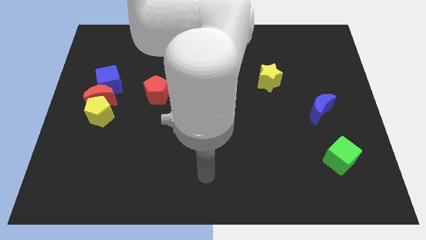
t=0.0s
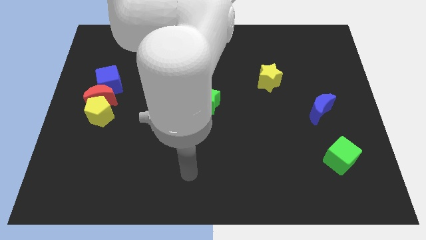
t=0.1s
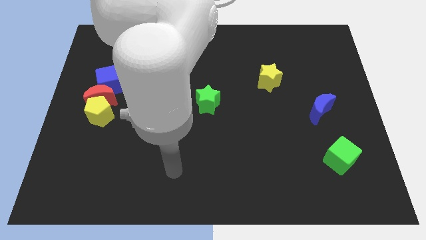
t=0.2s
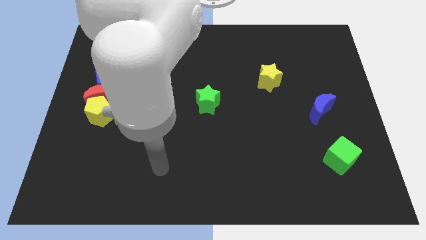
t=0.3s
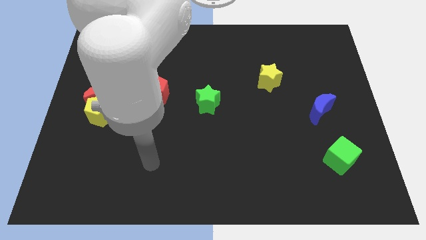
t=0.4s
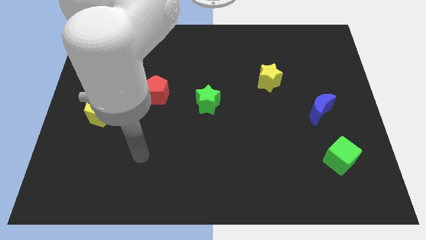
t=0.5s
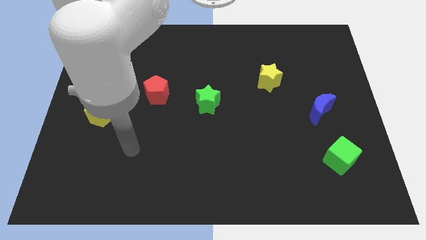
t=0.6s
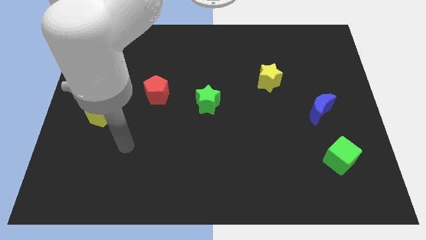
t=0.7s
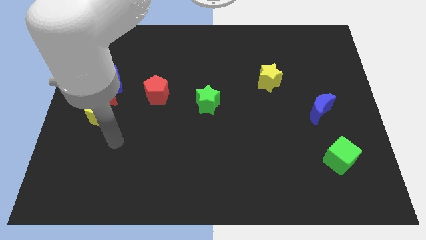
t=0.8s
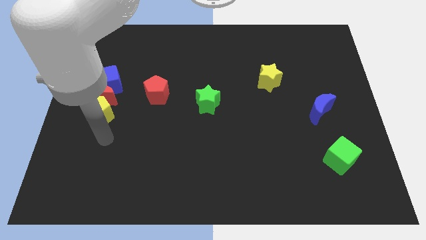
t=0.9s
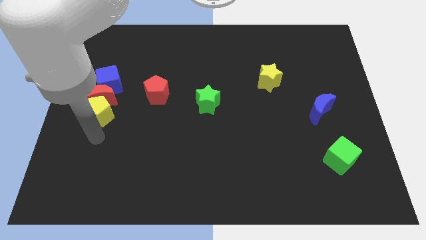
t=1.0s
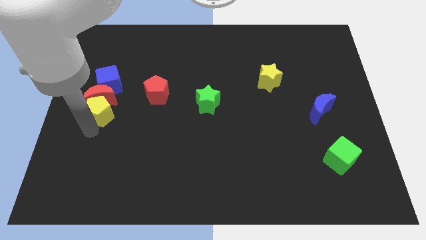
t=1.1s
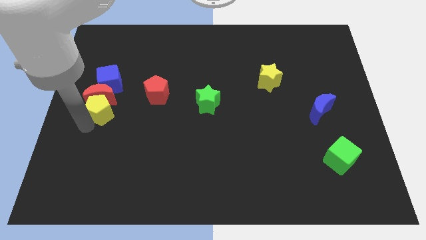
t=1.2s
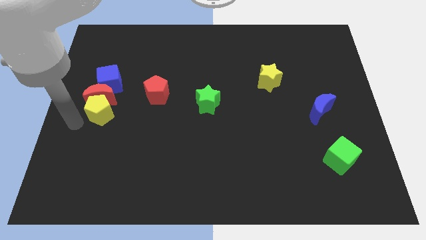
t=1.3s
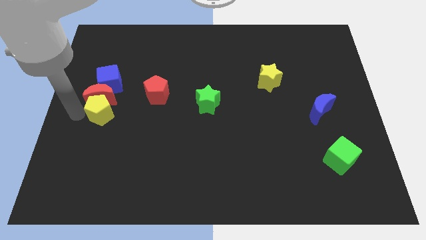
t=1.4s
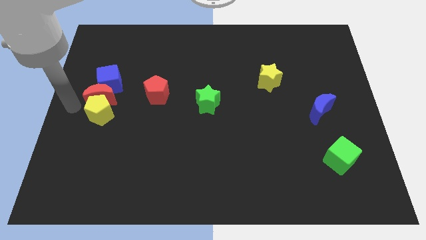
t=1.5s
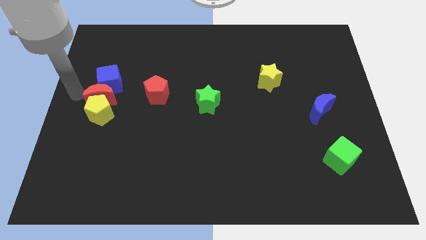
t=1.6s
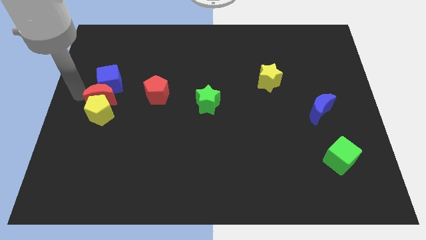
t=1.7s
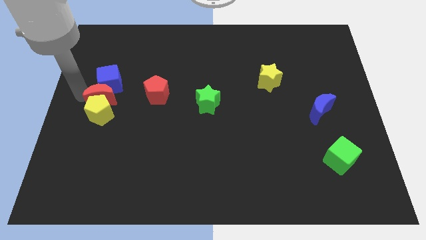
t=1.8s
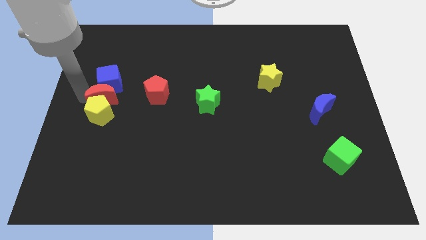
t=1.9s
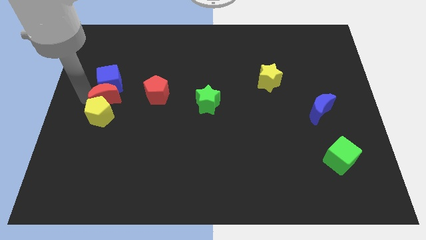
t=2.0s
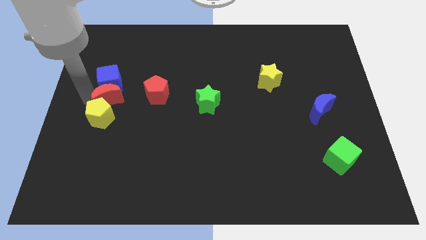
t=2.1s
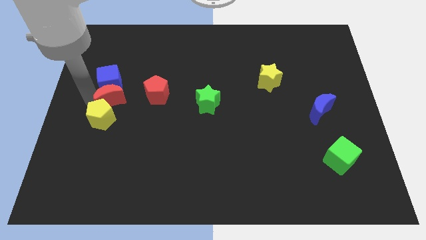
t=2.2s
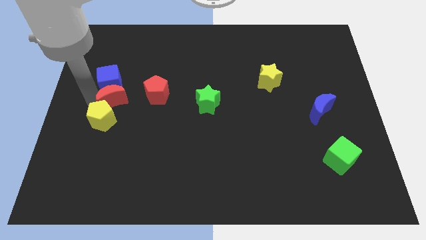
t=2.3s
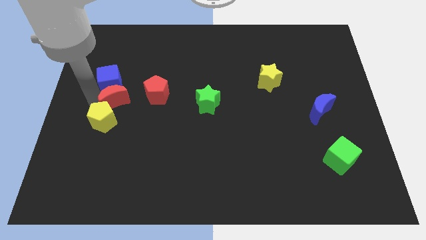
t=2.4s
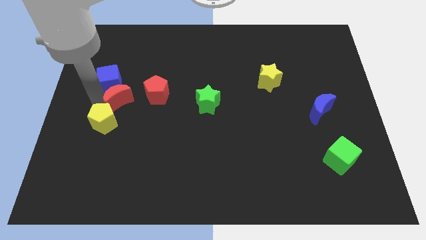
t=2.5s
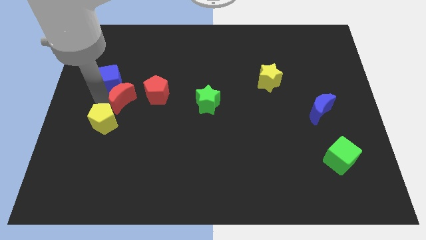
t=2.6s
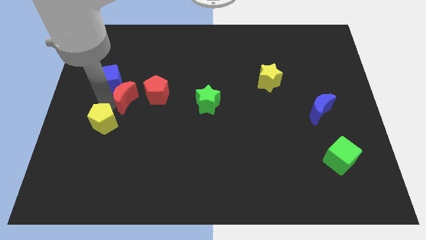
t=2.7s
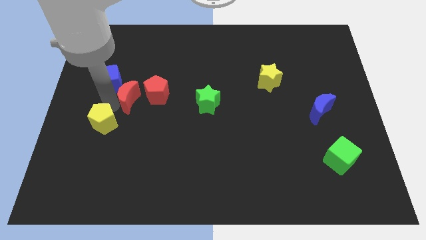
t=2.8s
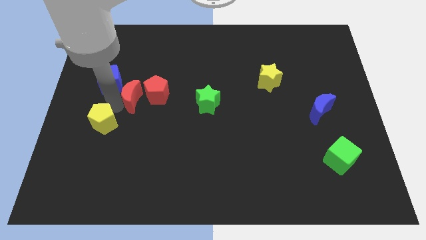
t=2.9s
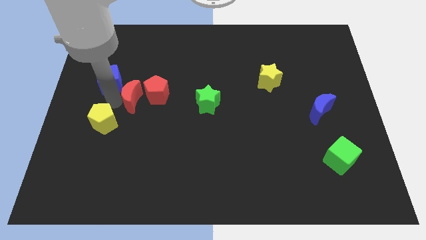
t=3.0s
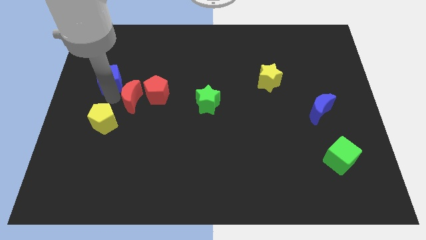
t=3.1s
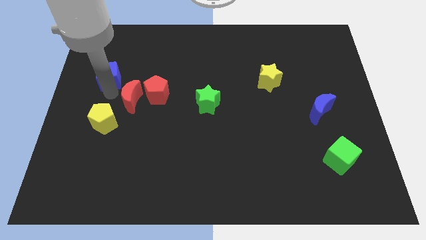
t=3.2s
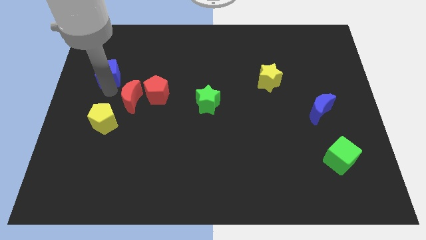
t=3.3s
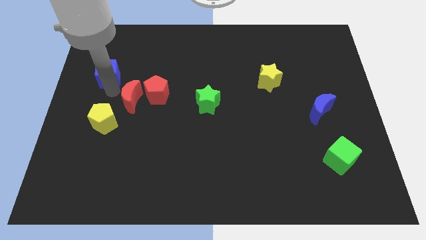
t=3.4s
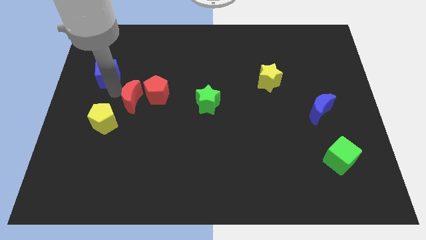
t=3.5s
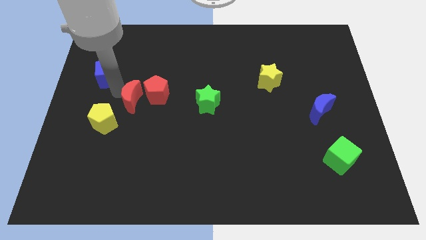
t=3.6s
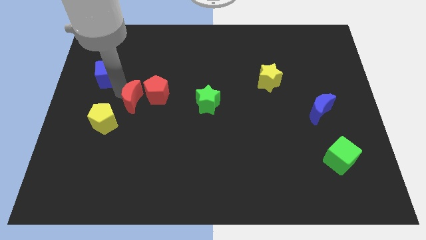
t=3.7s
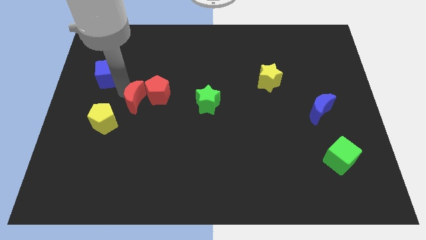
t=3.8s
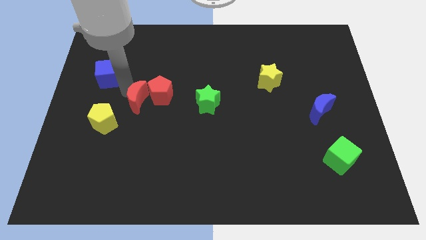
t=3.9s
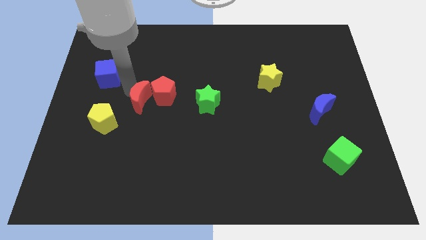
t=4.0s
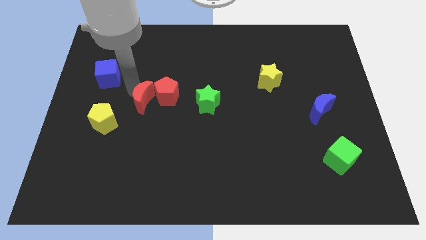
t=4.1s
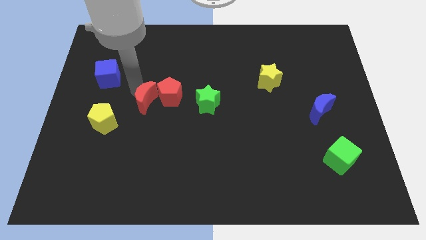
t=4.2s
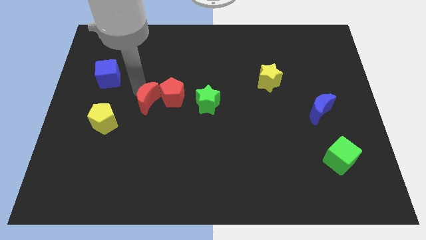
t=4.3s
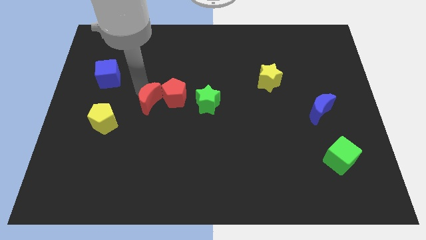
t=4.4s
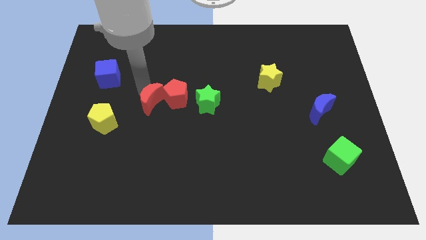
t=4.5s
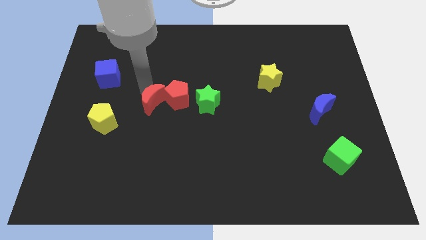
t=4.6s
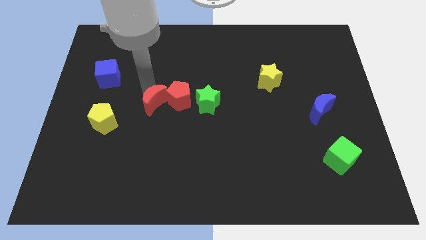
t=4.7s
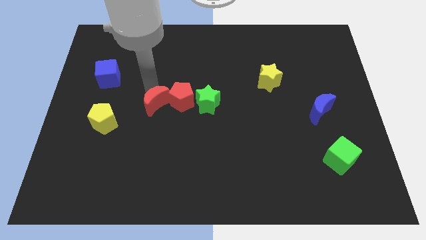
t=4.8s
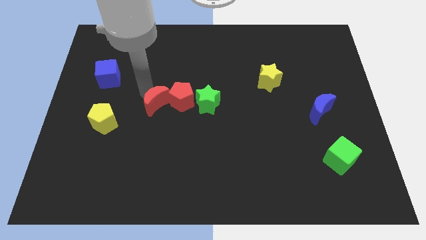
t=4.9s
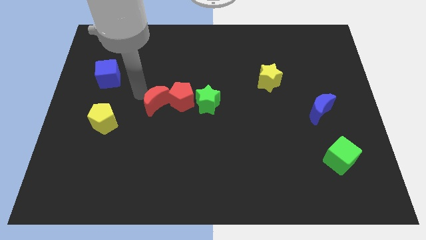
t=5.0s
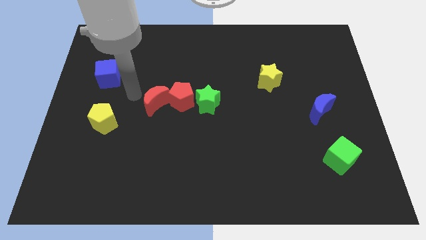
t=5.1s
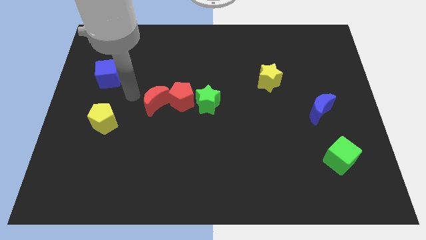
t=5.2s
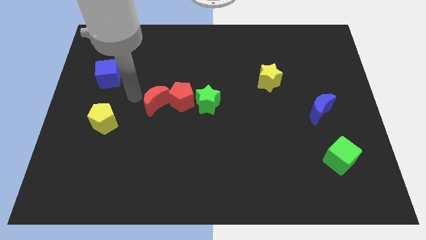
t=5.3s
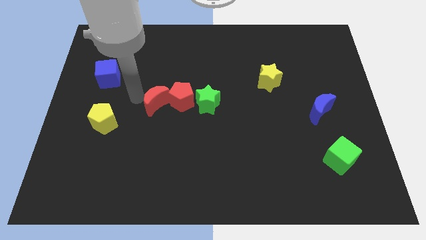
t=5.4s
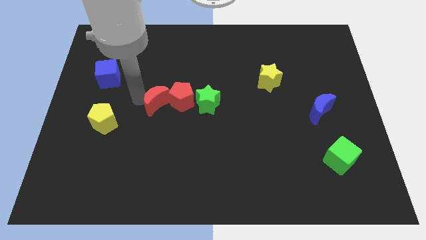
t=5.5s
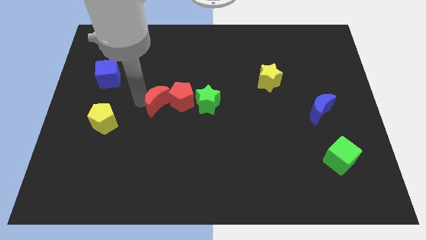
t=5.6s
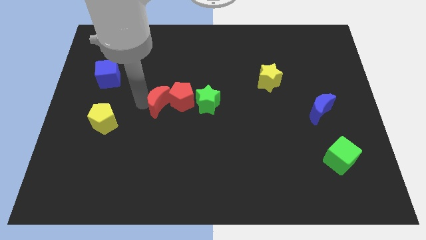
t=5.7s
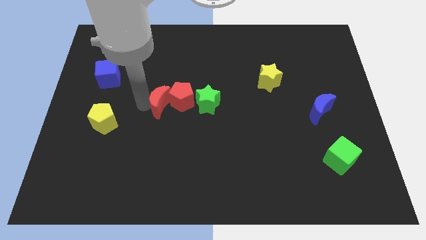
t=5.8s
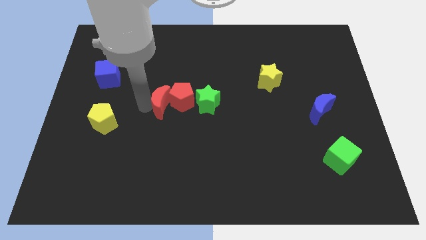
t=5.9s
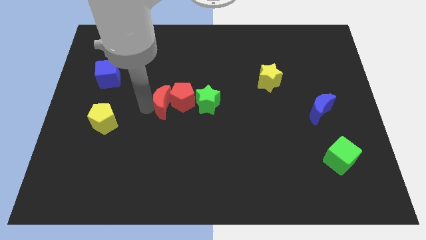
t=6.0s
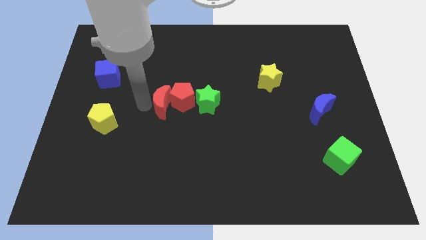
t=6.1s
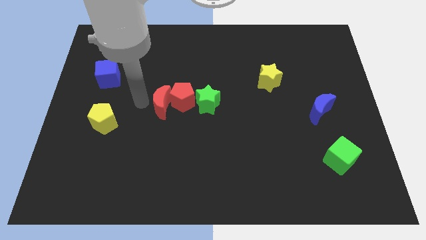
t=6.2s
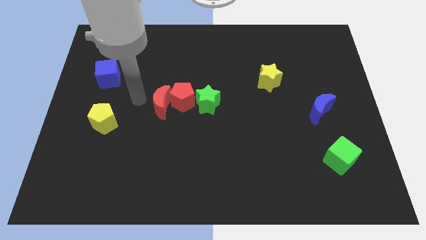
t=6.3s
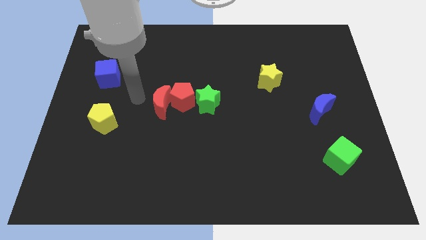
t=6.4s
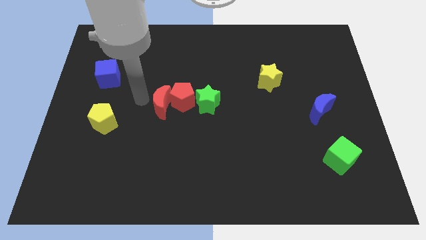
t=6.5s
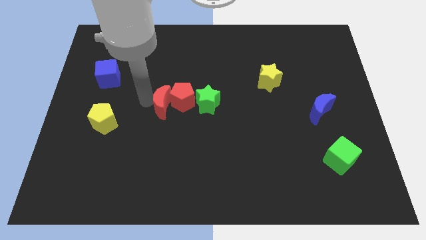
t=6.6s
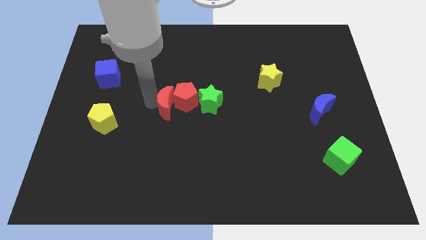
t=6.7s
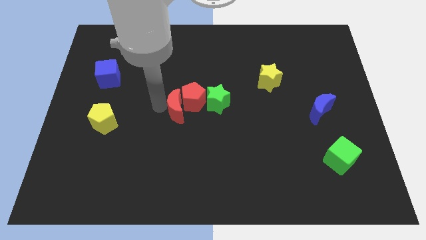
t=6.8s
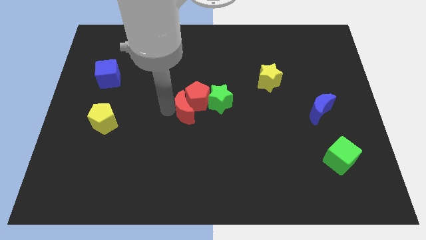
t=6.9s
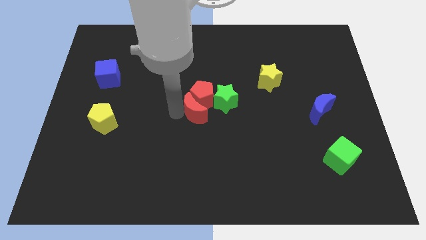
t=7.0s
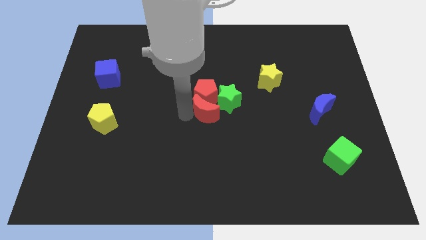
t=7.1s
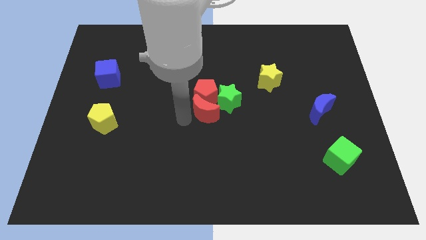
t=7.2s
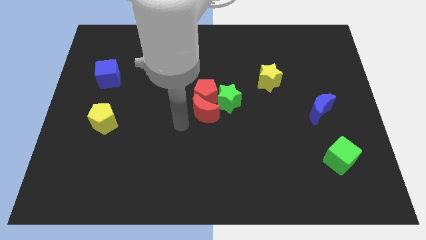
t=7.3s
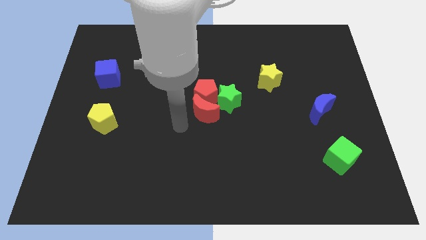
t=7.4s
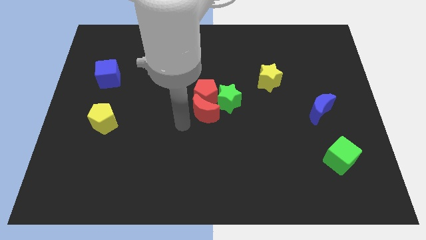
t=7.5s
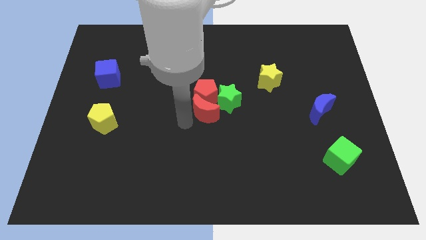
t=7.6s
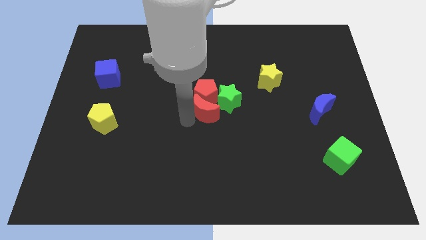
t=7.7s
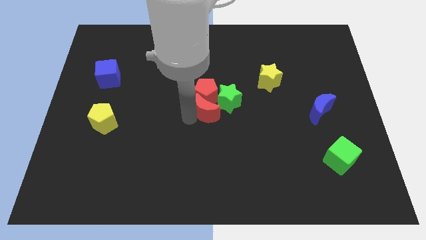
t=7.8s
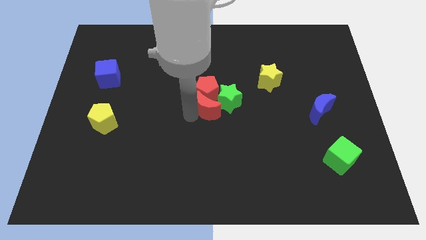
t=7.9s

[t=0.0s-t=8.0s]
put the red moon to the green star
